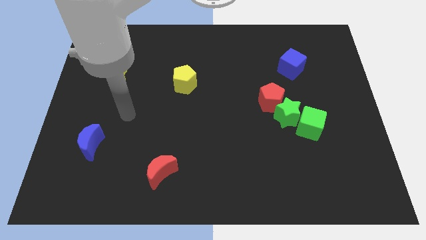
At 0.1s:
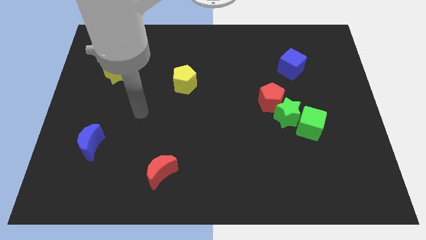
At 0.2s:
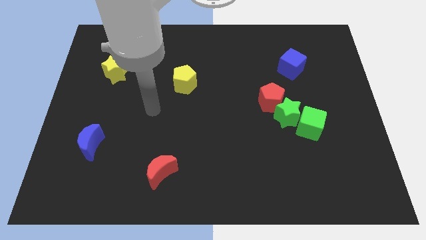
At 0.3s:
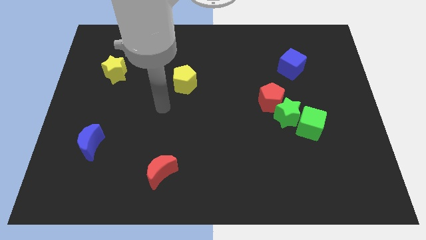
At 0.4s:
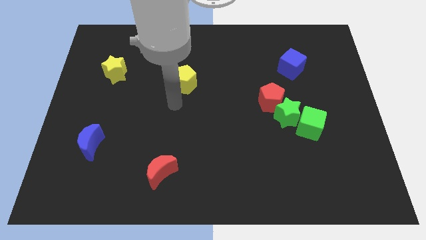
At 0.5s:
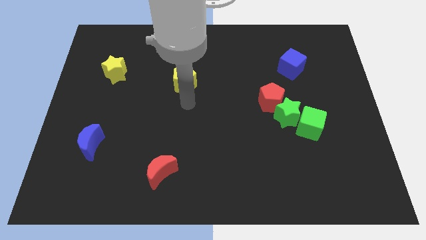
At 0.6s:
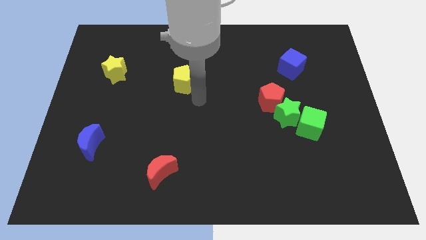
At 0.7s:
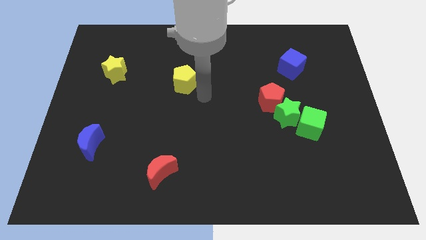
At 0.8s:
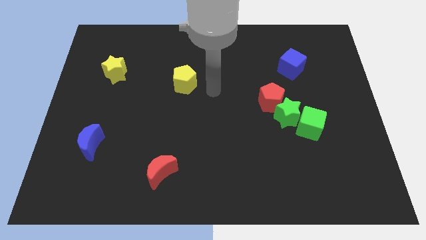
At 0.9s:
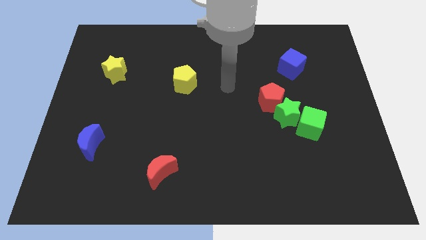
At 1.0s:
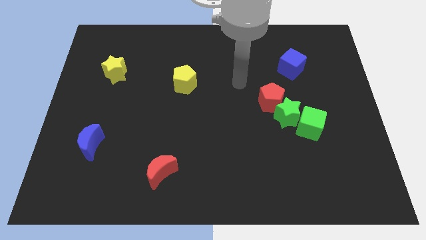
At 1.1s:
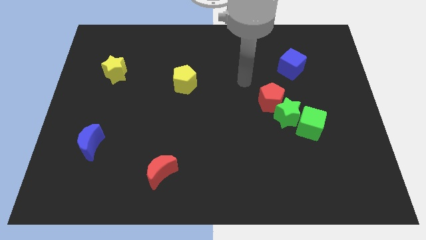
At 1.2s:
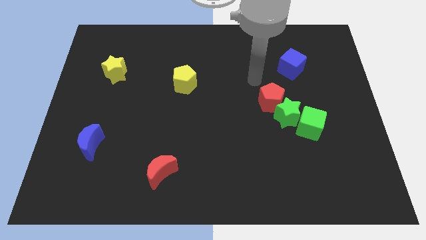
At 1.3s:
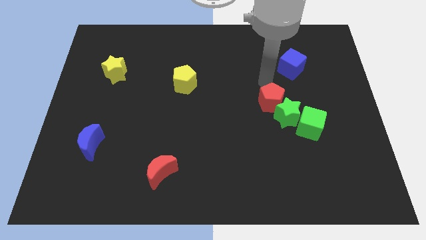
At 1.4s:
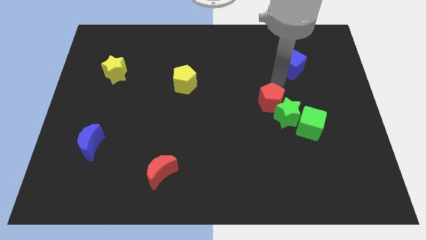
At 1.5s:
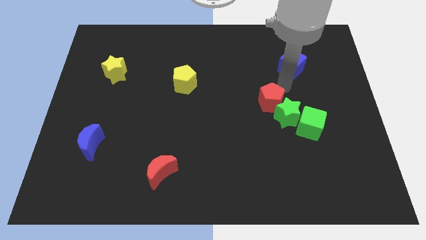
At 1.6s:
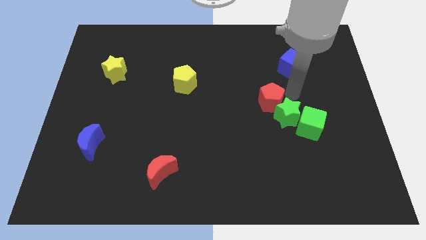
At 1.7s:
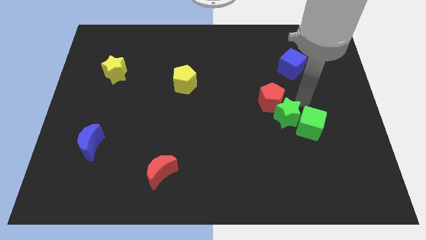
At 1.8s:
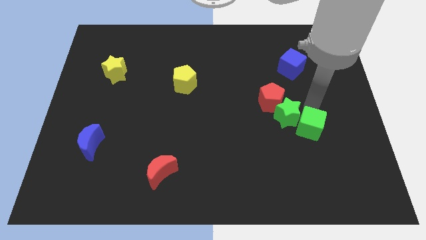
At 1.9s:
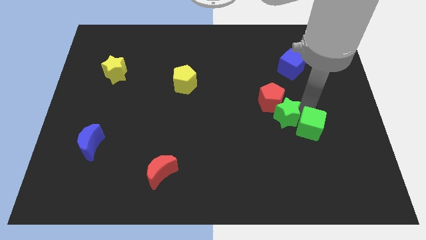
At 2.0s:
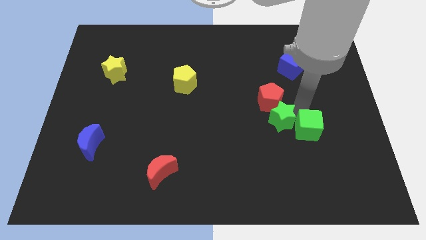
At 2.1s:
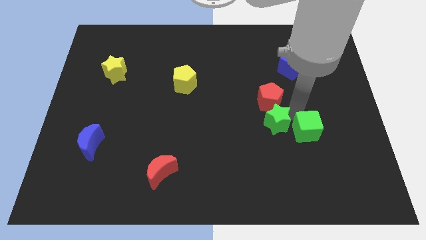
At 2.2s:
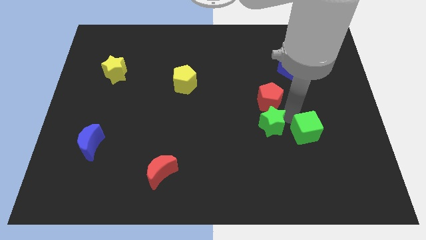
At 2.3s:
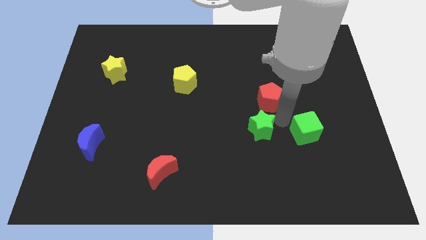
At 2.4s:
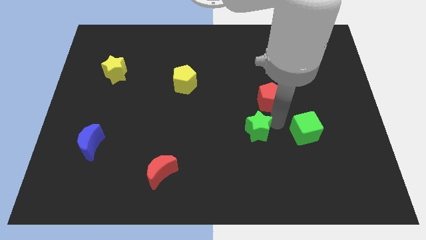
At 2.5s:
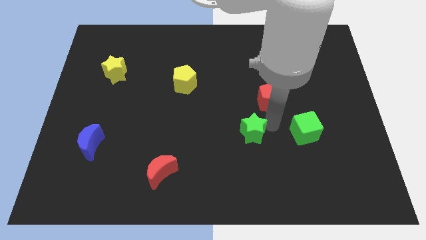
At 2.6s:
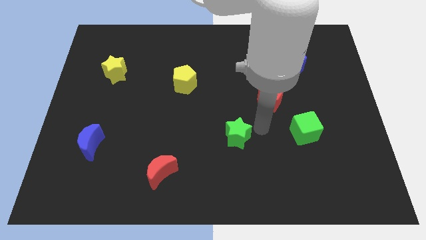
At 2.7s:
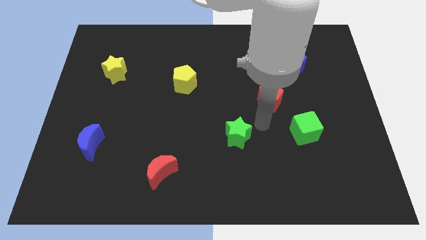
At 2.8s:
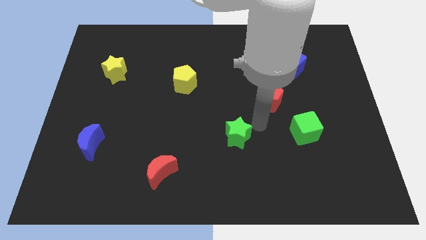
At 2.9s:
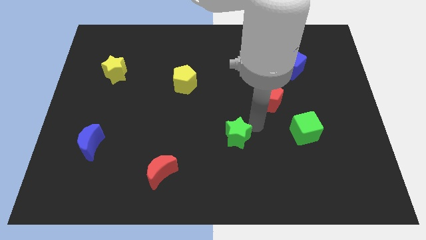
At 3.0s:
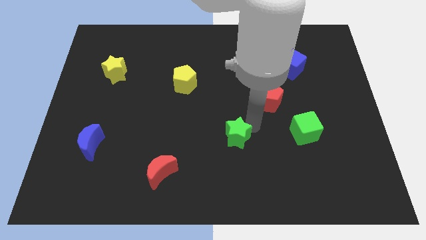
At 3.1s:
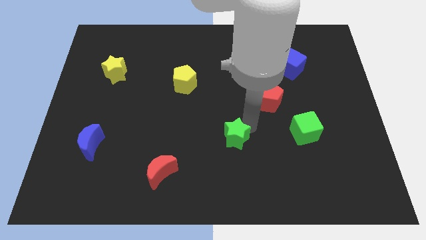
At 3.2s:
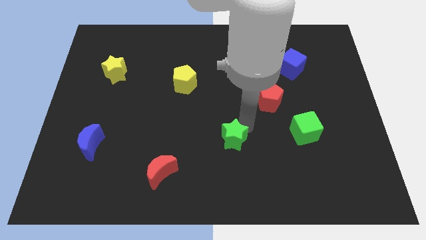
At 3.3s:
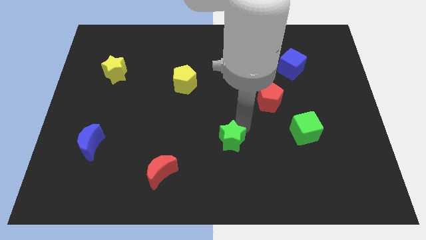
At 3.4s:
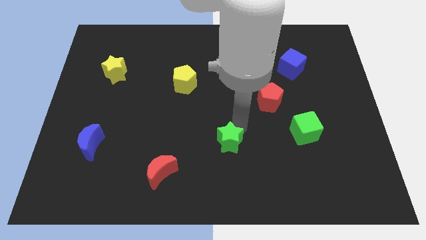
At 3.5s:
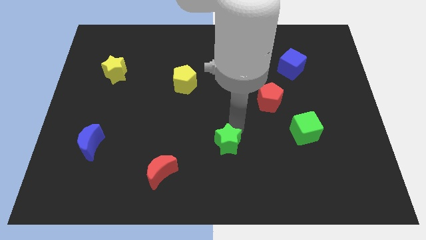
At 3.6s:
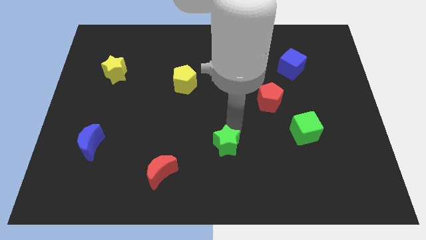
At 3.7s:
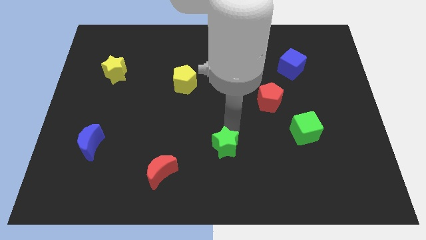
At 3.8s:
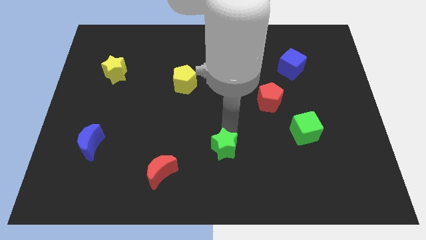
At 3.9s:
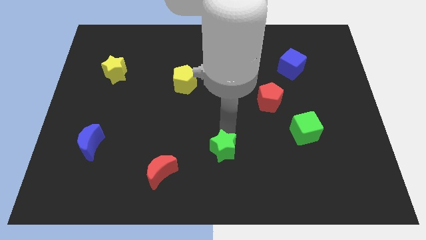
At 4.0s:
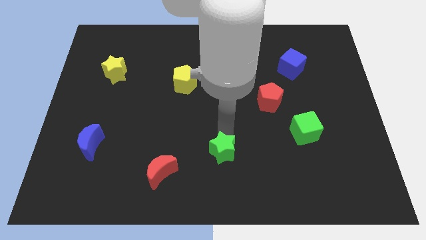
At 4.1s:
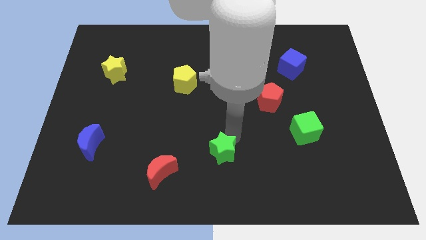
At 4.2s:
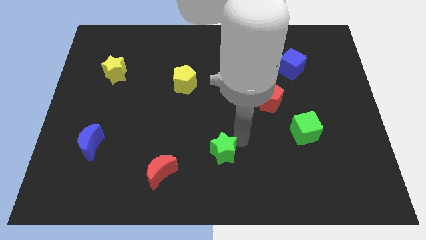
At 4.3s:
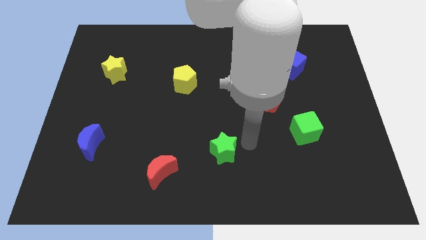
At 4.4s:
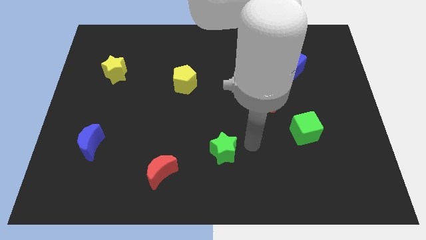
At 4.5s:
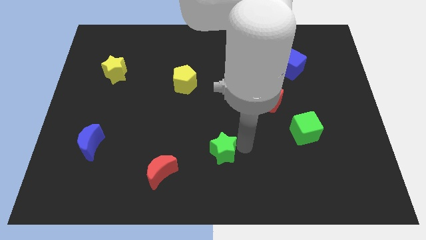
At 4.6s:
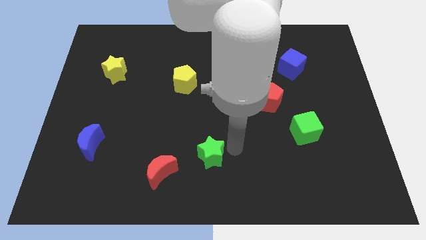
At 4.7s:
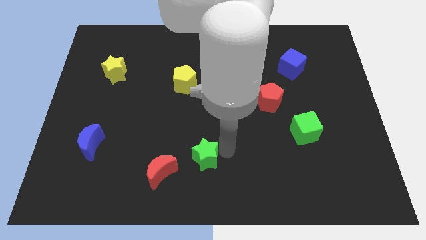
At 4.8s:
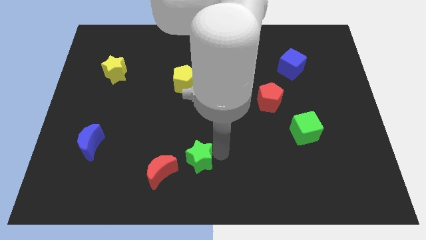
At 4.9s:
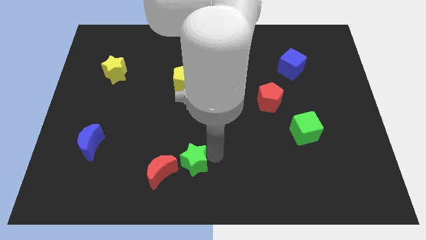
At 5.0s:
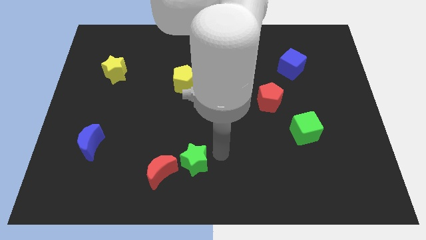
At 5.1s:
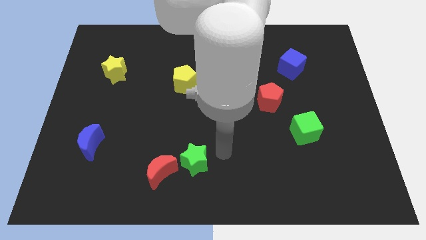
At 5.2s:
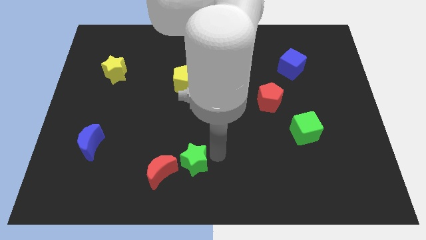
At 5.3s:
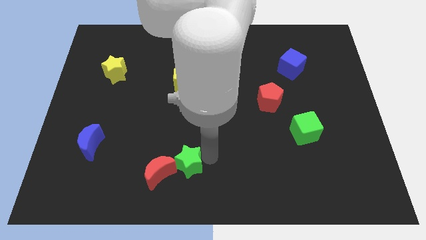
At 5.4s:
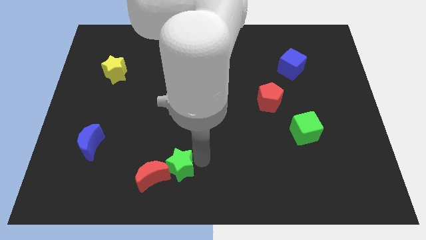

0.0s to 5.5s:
move the green star towards the red moon

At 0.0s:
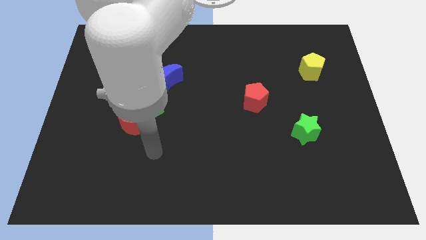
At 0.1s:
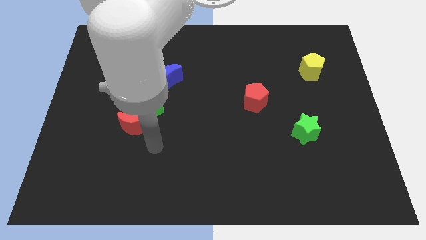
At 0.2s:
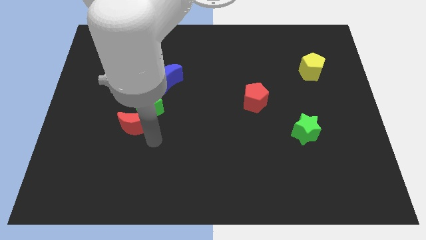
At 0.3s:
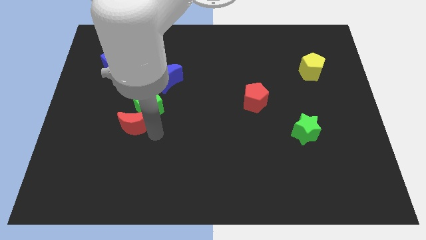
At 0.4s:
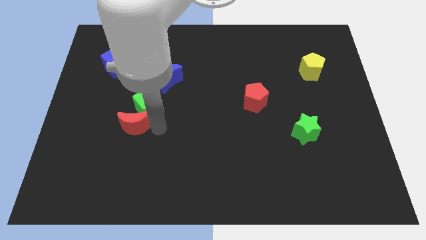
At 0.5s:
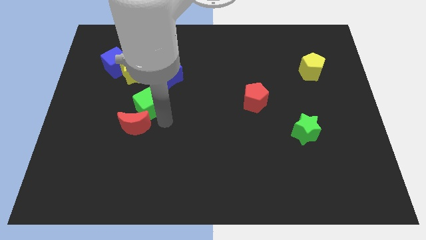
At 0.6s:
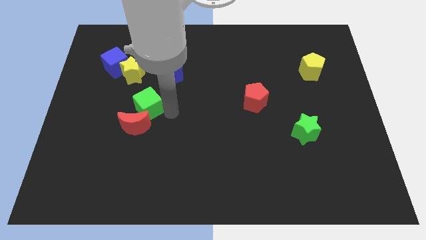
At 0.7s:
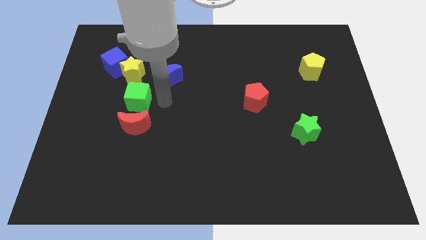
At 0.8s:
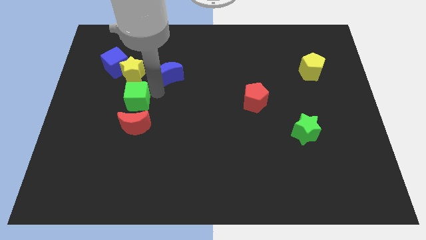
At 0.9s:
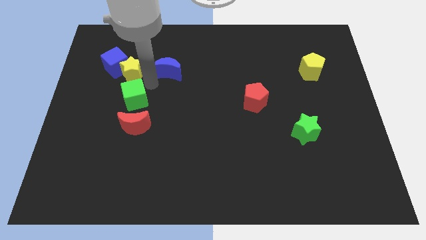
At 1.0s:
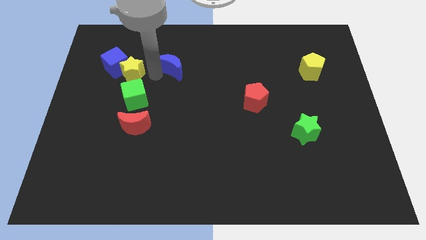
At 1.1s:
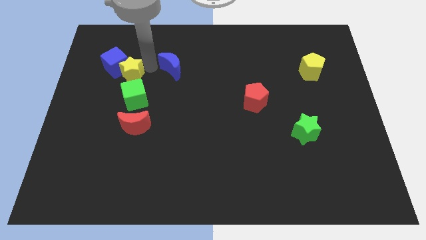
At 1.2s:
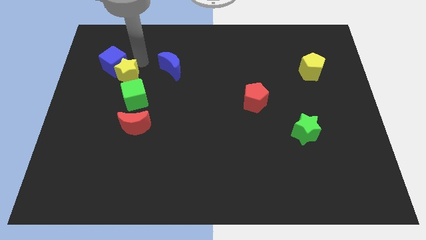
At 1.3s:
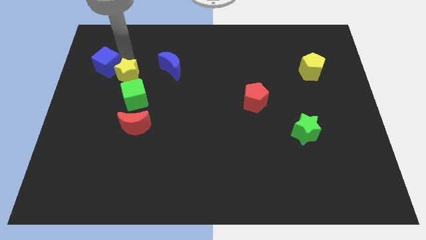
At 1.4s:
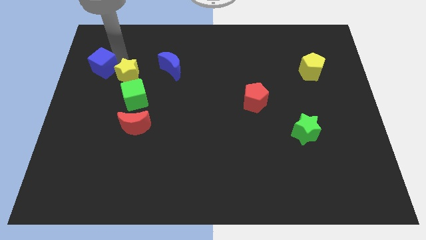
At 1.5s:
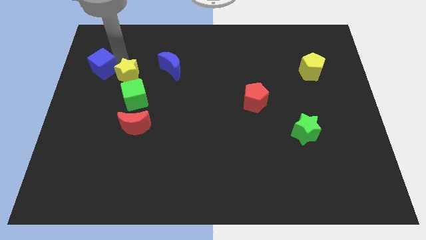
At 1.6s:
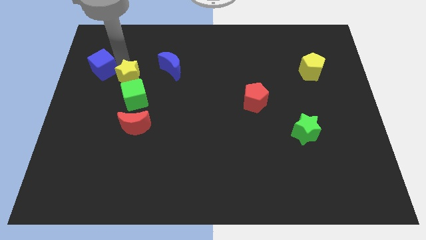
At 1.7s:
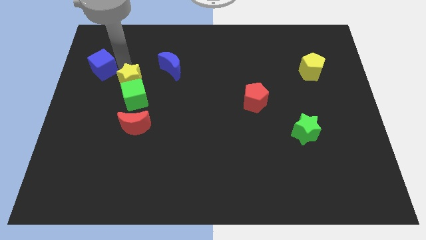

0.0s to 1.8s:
put the yellow star towards the green cube
